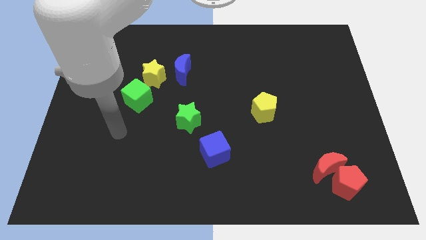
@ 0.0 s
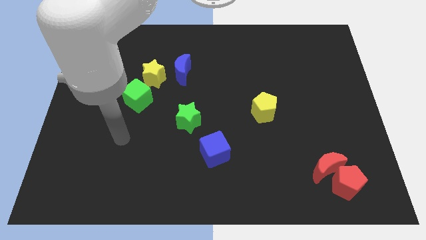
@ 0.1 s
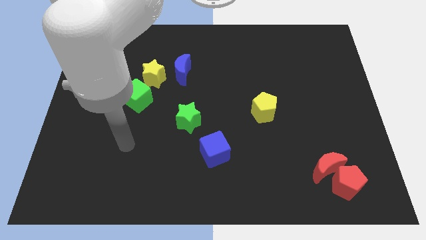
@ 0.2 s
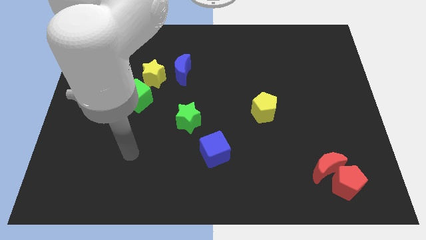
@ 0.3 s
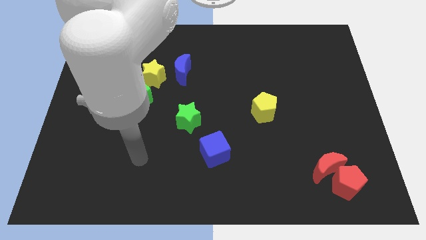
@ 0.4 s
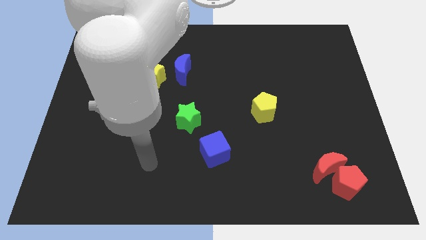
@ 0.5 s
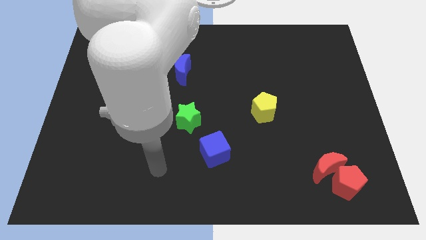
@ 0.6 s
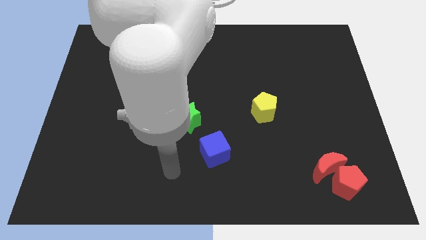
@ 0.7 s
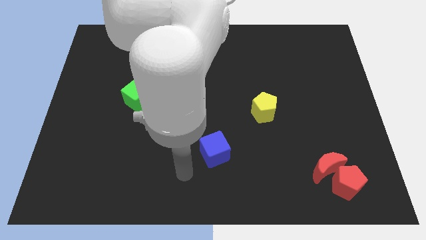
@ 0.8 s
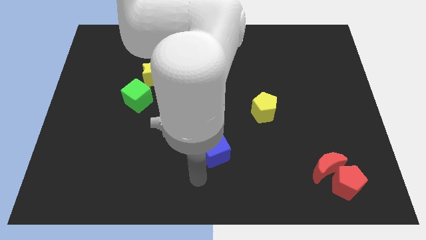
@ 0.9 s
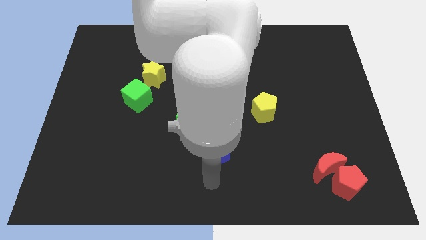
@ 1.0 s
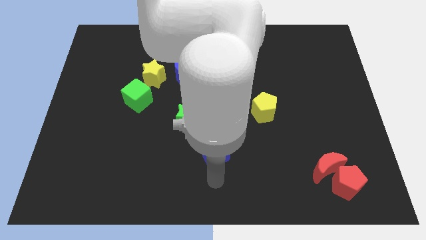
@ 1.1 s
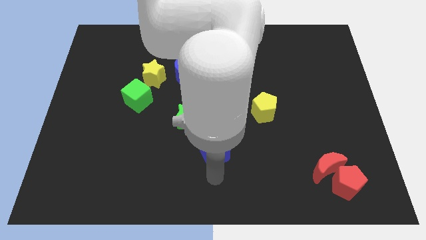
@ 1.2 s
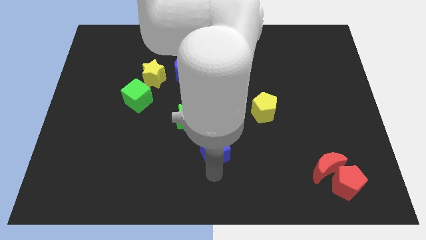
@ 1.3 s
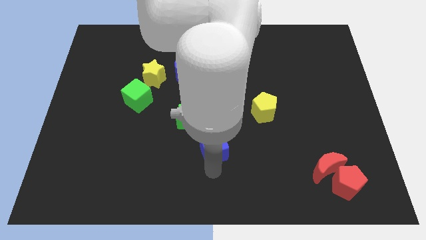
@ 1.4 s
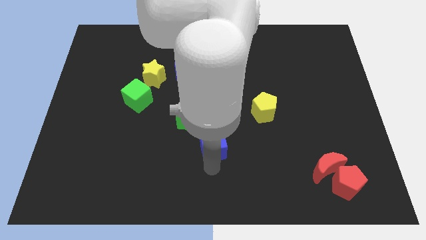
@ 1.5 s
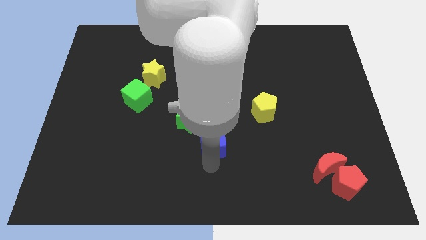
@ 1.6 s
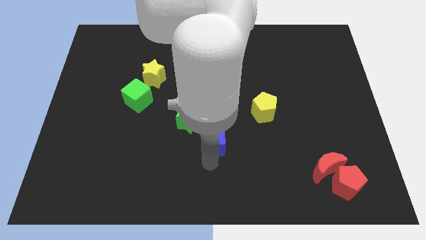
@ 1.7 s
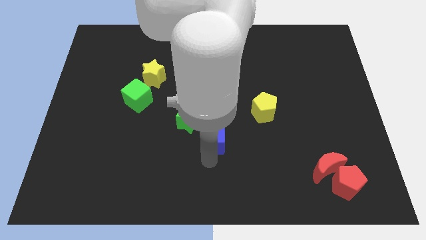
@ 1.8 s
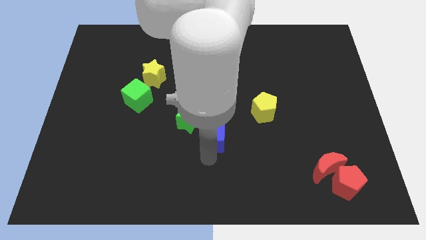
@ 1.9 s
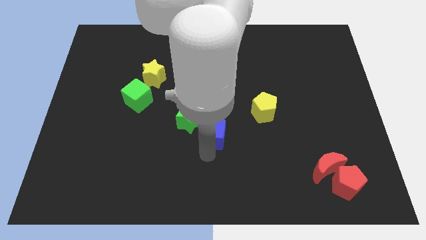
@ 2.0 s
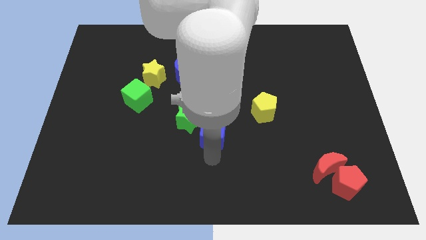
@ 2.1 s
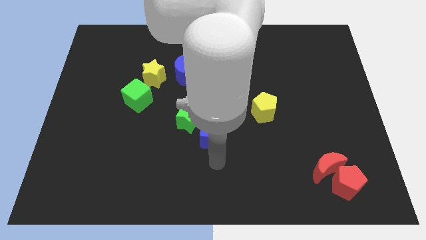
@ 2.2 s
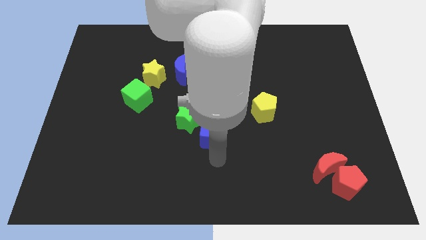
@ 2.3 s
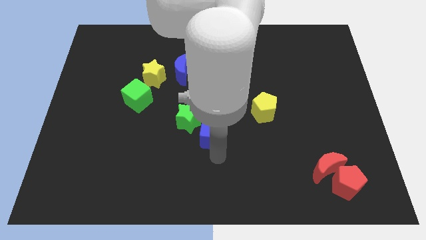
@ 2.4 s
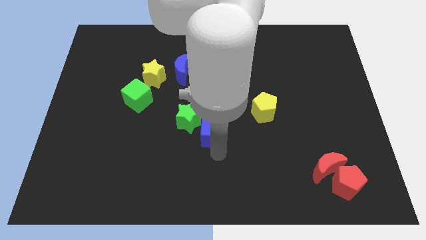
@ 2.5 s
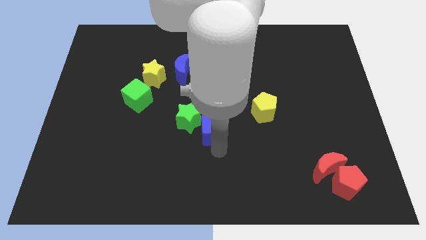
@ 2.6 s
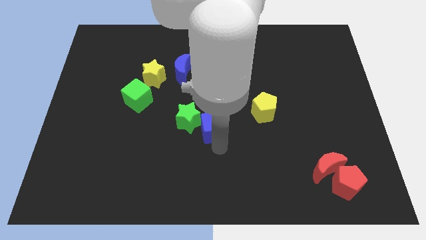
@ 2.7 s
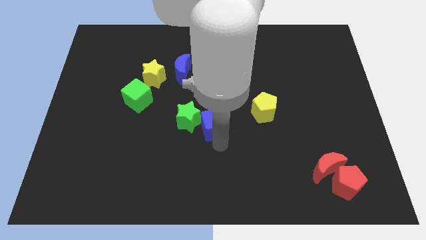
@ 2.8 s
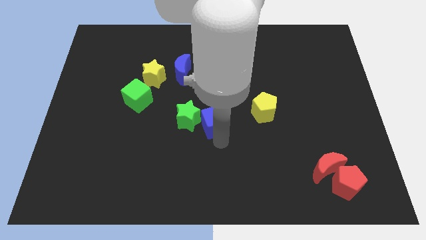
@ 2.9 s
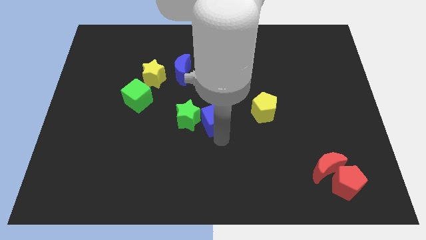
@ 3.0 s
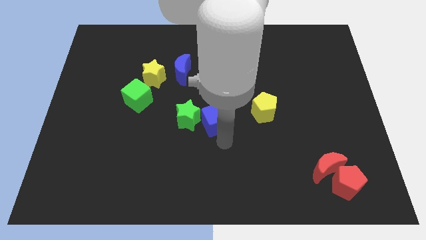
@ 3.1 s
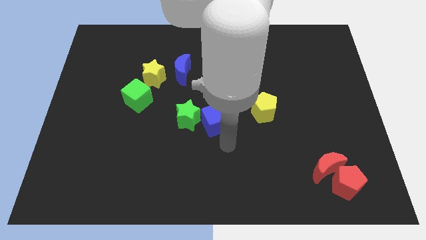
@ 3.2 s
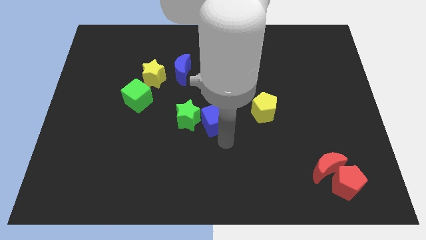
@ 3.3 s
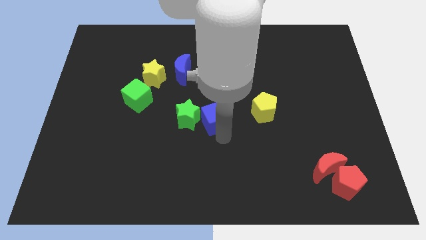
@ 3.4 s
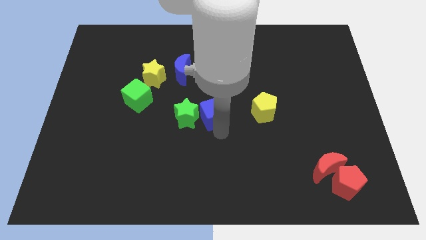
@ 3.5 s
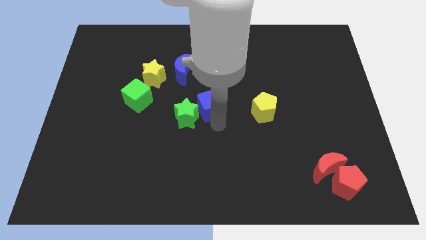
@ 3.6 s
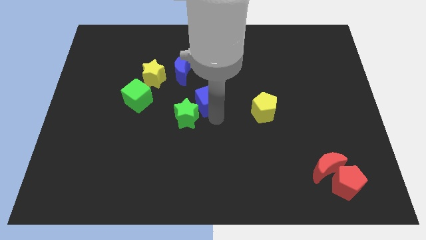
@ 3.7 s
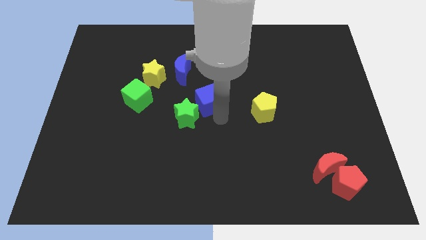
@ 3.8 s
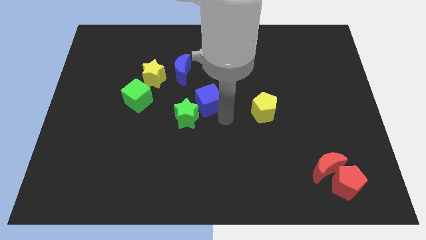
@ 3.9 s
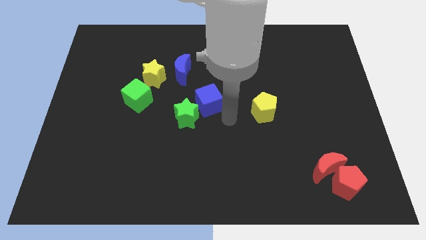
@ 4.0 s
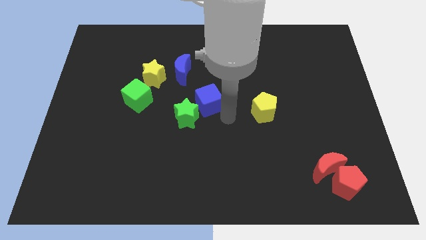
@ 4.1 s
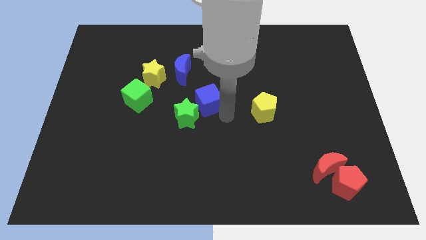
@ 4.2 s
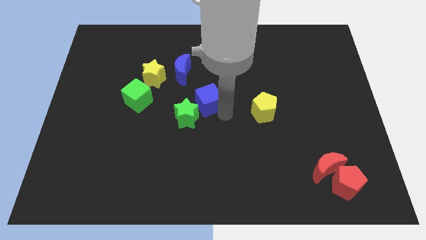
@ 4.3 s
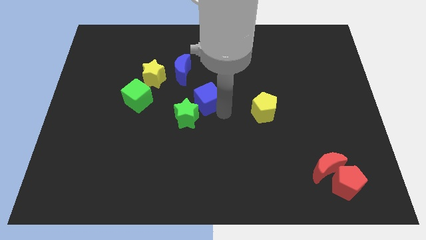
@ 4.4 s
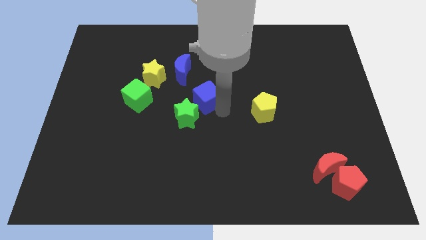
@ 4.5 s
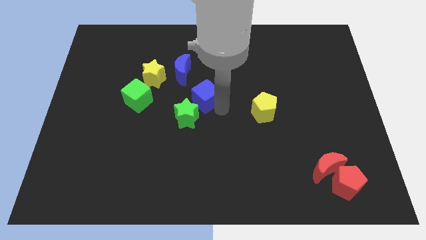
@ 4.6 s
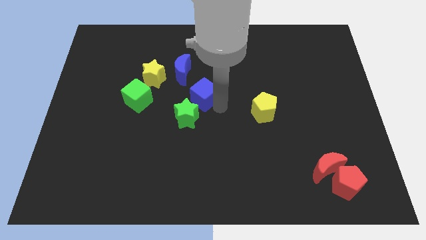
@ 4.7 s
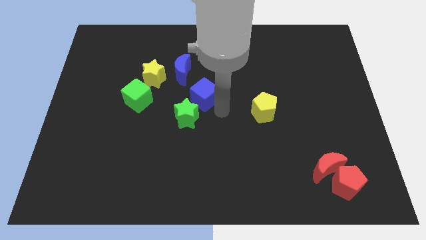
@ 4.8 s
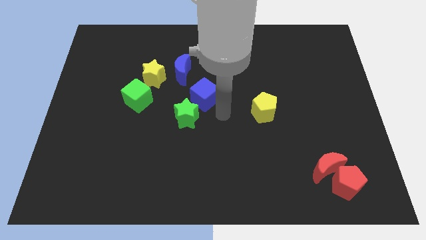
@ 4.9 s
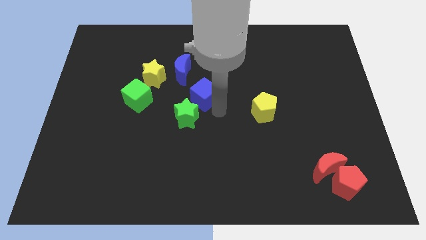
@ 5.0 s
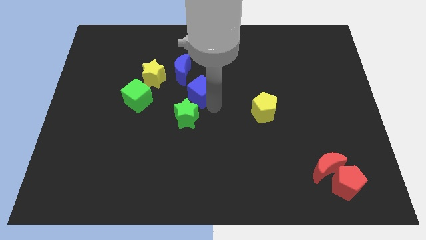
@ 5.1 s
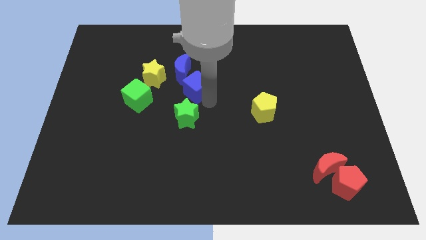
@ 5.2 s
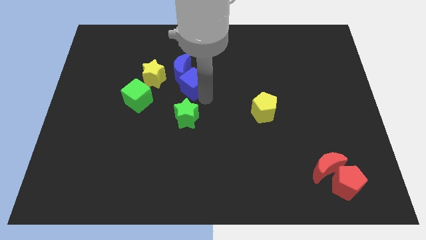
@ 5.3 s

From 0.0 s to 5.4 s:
push the blue cube next to the blue moon

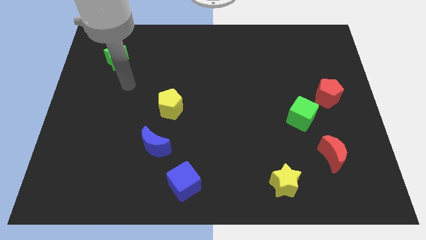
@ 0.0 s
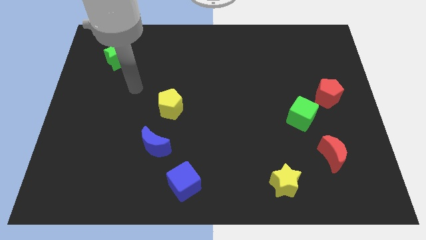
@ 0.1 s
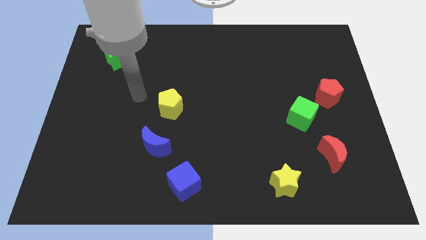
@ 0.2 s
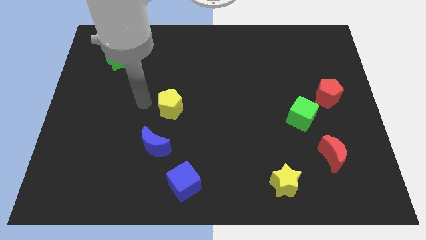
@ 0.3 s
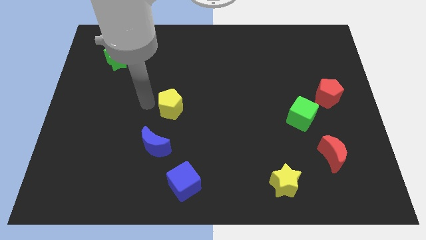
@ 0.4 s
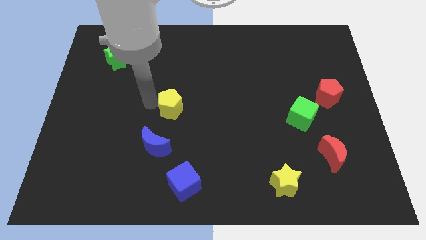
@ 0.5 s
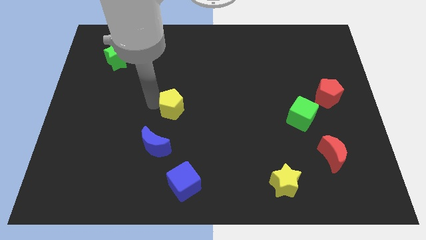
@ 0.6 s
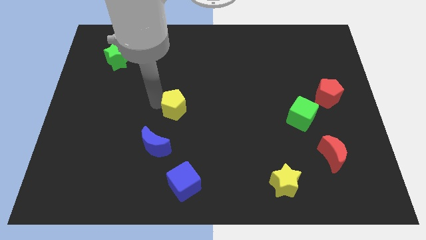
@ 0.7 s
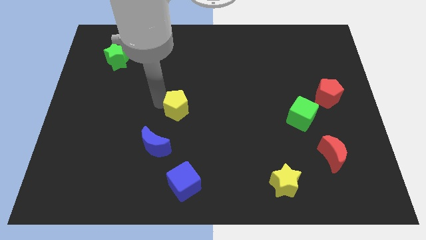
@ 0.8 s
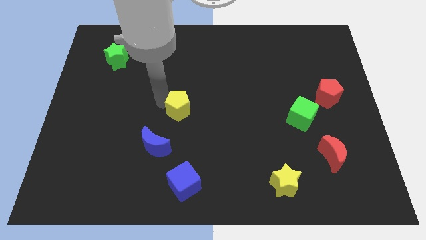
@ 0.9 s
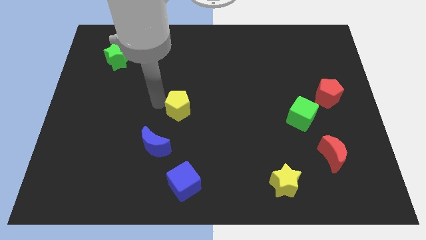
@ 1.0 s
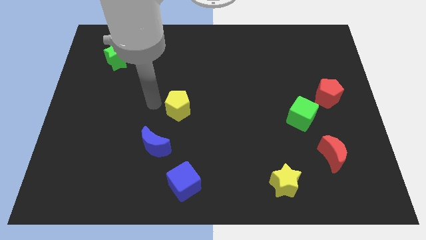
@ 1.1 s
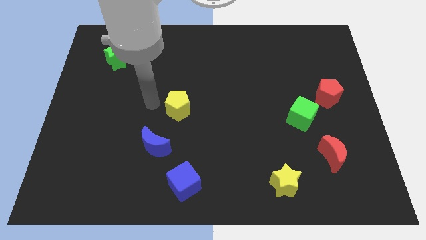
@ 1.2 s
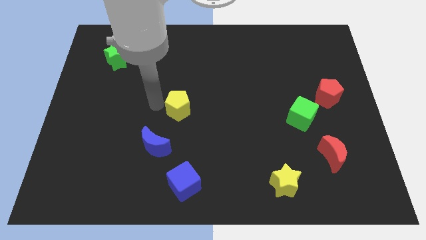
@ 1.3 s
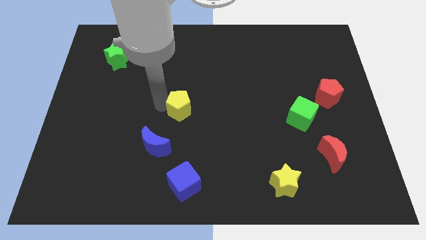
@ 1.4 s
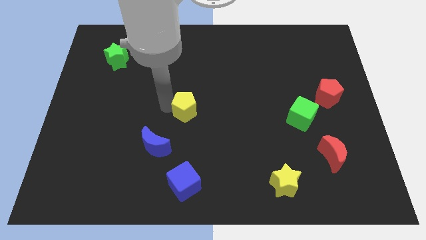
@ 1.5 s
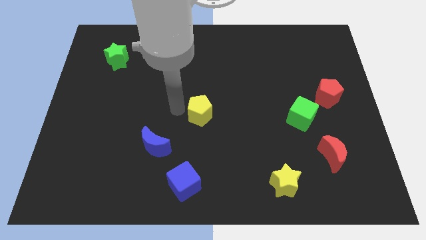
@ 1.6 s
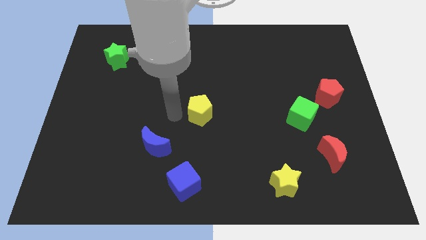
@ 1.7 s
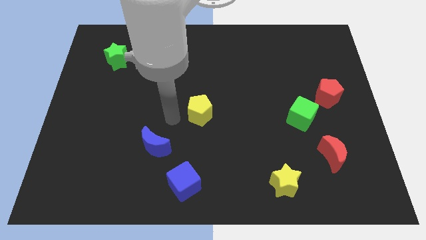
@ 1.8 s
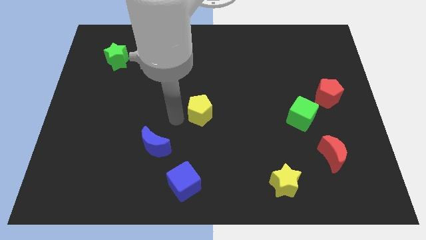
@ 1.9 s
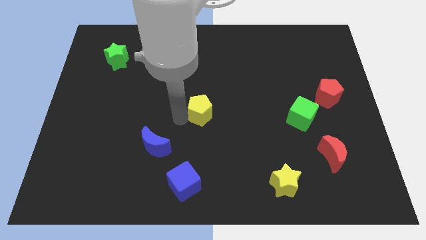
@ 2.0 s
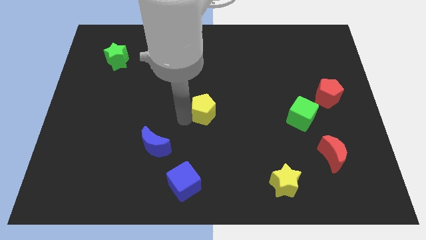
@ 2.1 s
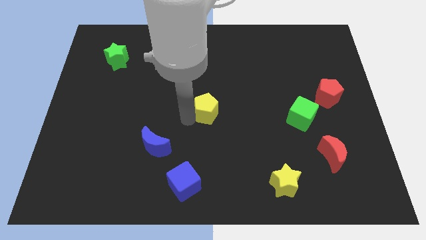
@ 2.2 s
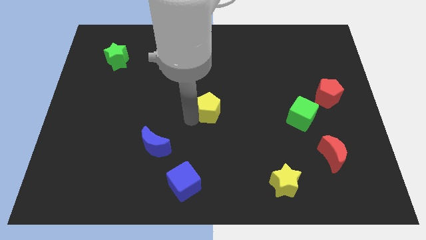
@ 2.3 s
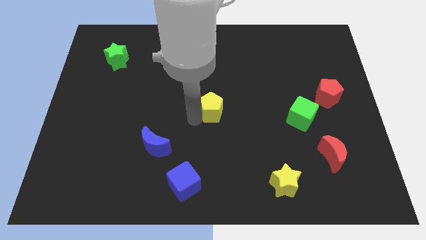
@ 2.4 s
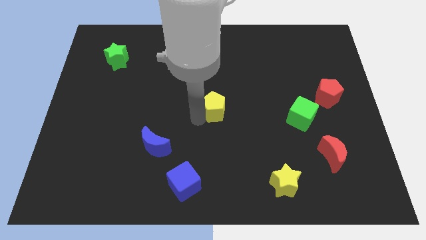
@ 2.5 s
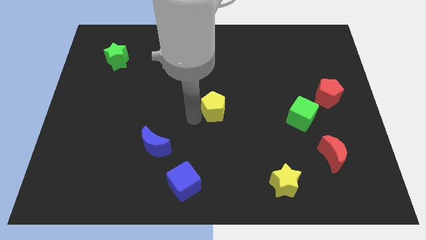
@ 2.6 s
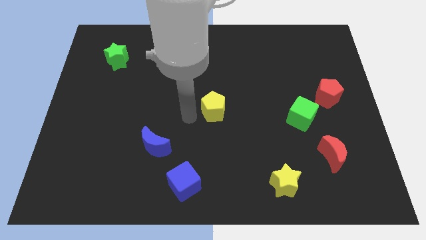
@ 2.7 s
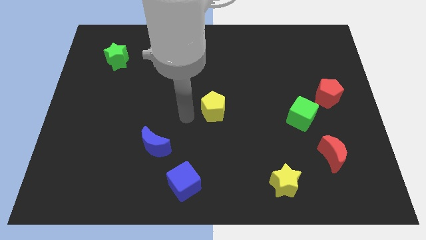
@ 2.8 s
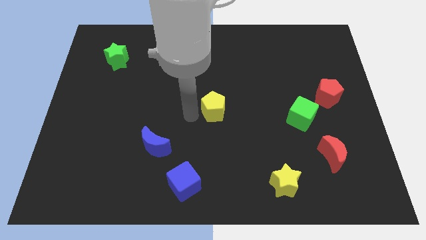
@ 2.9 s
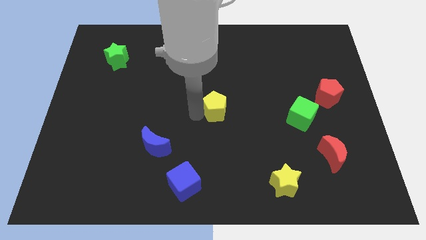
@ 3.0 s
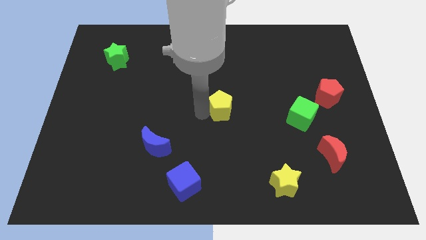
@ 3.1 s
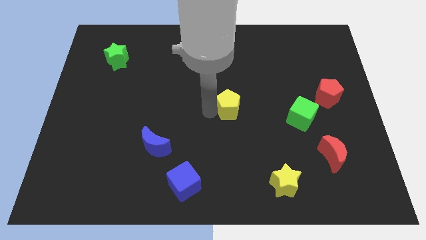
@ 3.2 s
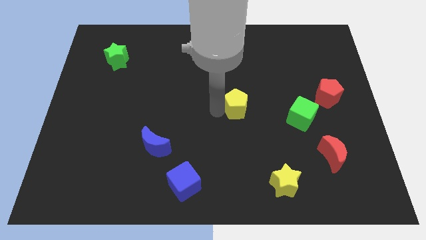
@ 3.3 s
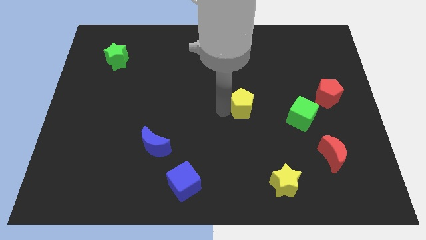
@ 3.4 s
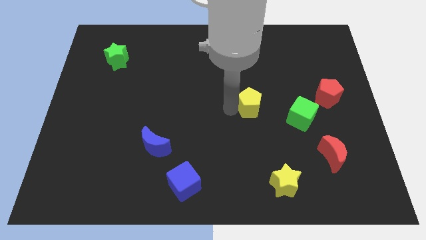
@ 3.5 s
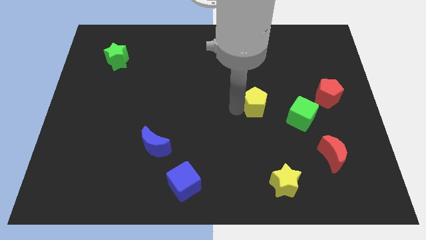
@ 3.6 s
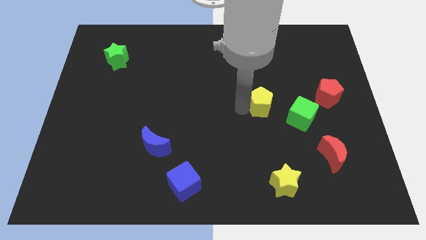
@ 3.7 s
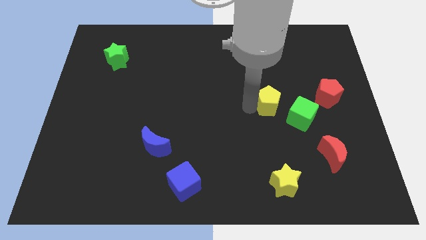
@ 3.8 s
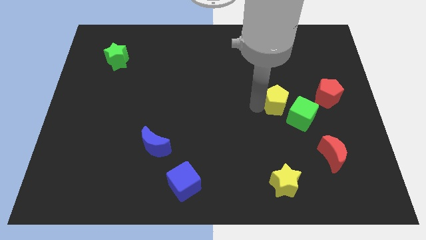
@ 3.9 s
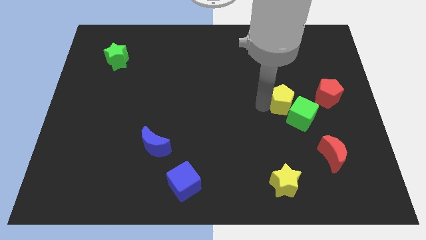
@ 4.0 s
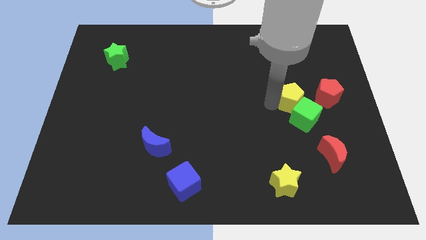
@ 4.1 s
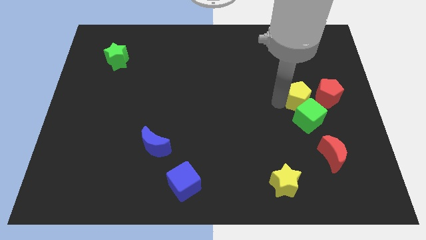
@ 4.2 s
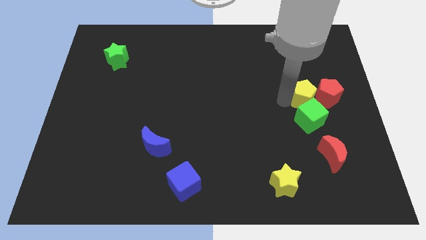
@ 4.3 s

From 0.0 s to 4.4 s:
slide the yellow pentagon to the red pentagon
